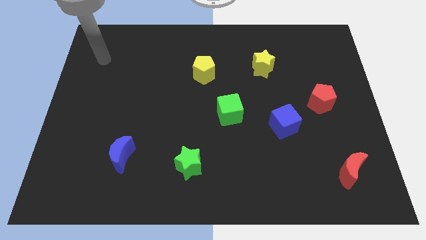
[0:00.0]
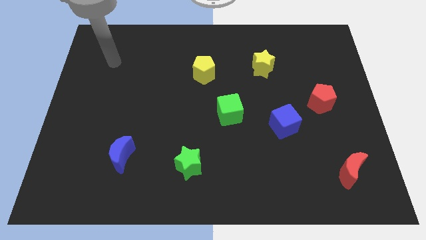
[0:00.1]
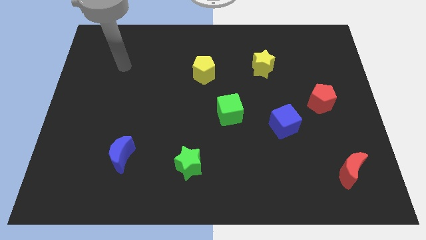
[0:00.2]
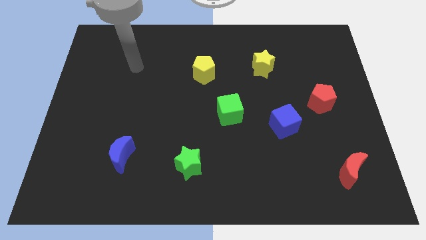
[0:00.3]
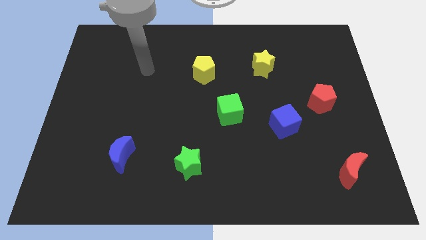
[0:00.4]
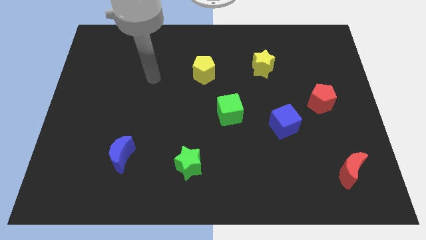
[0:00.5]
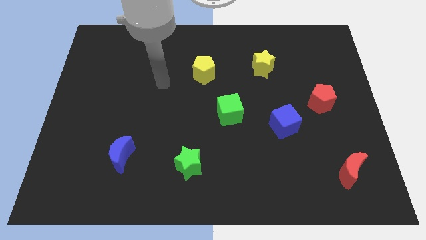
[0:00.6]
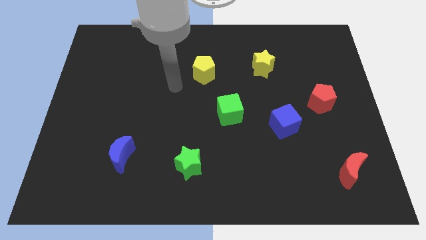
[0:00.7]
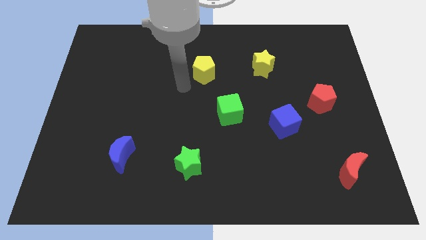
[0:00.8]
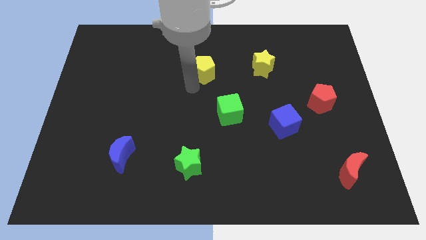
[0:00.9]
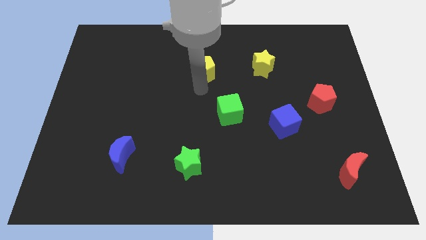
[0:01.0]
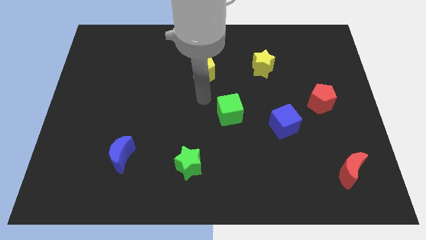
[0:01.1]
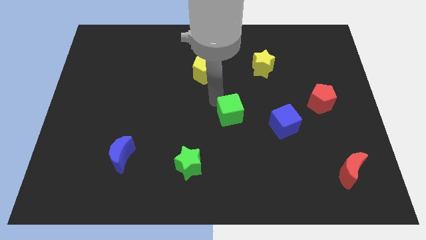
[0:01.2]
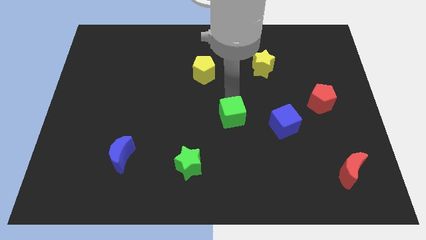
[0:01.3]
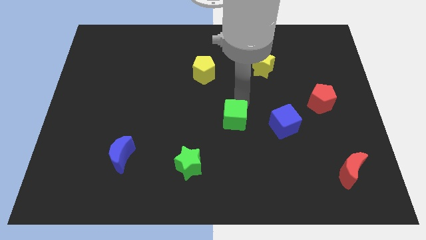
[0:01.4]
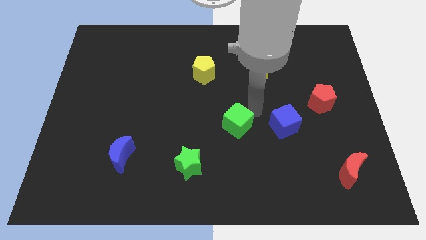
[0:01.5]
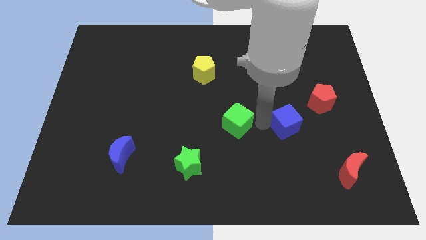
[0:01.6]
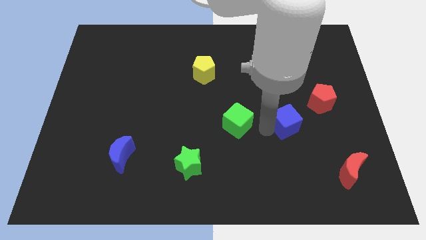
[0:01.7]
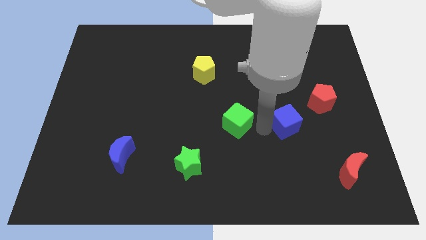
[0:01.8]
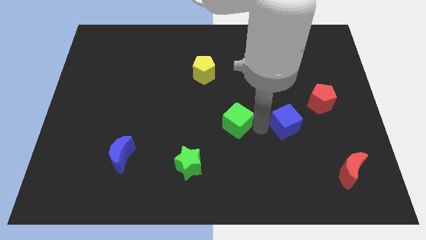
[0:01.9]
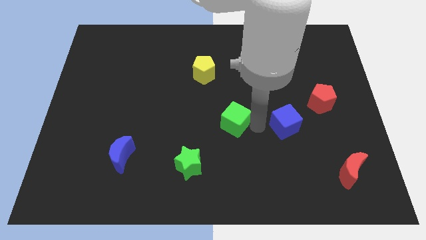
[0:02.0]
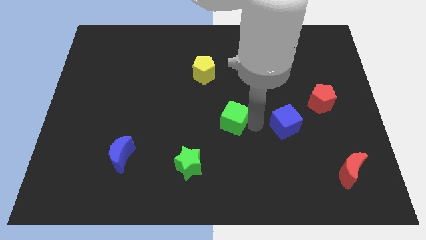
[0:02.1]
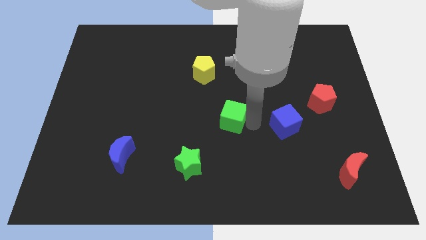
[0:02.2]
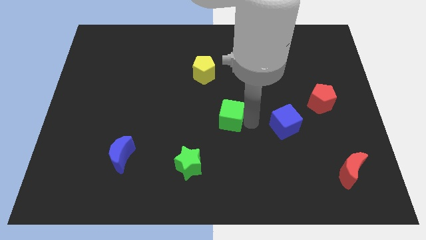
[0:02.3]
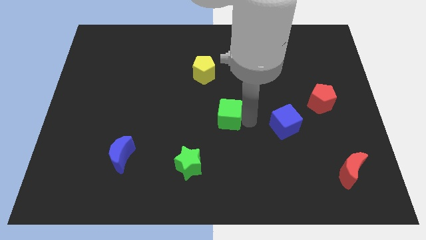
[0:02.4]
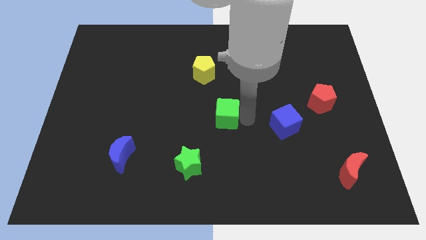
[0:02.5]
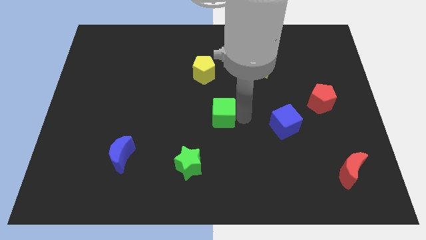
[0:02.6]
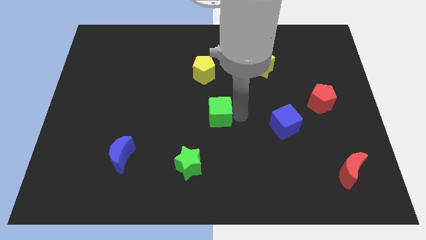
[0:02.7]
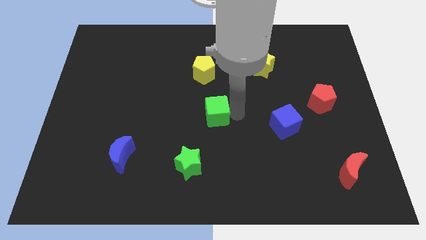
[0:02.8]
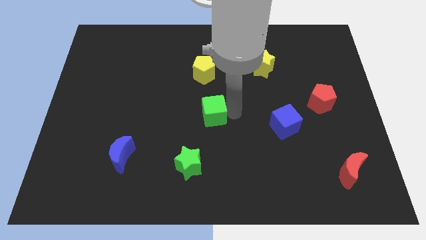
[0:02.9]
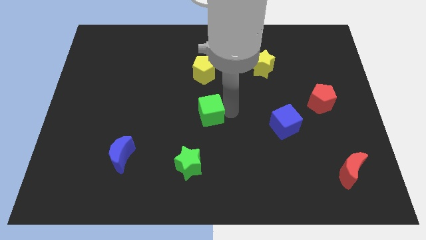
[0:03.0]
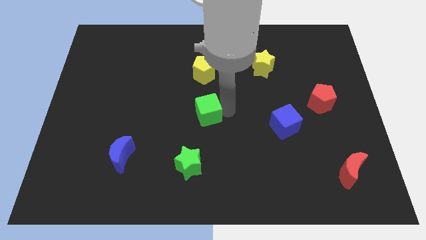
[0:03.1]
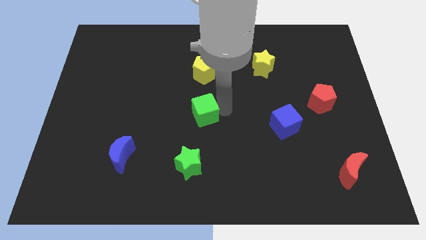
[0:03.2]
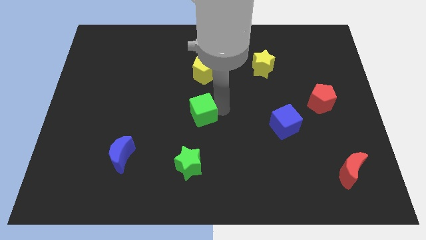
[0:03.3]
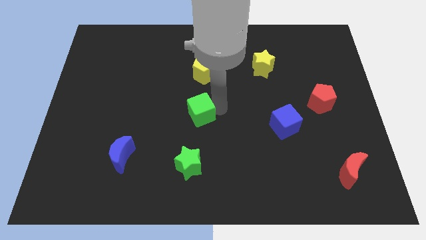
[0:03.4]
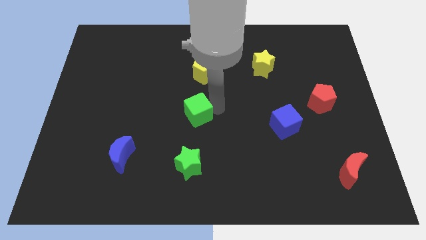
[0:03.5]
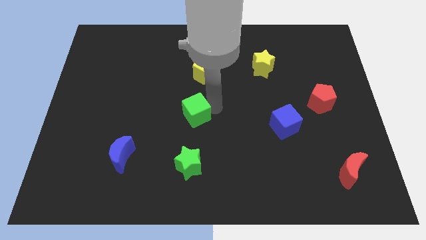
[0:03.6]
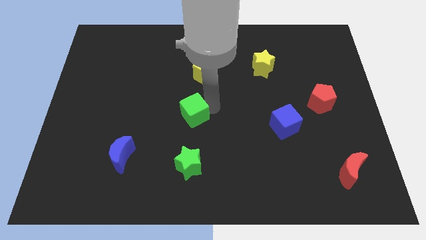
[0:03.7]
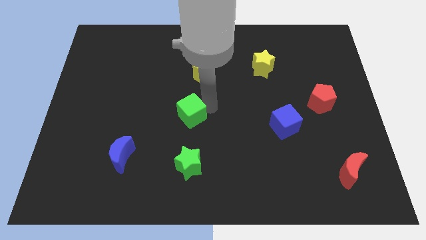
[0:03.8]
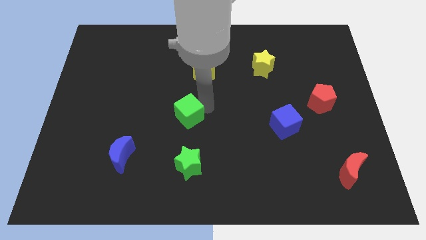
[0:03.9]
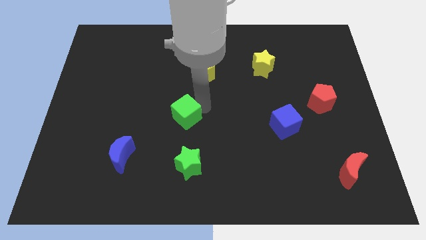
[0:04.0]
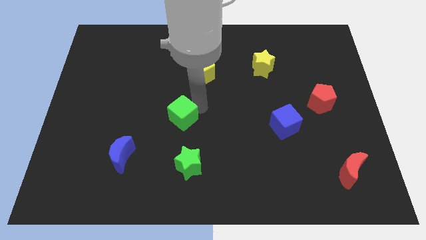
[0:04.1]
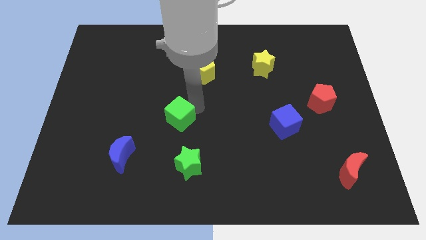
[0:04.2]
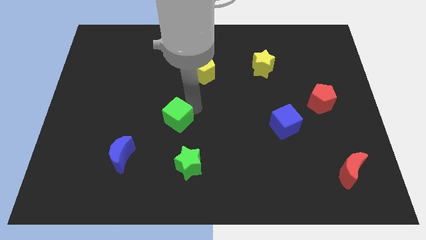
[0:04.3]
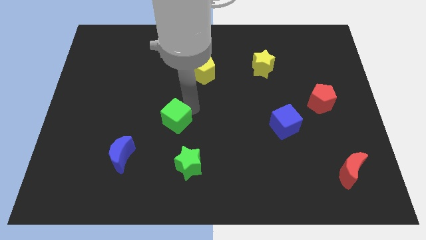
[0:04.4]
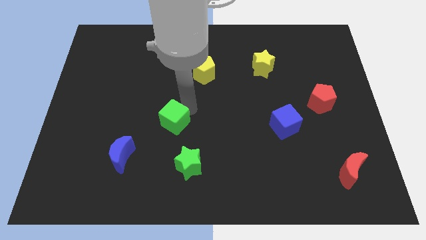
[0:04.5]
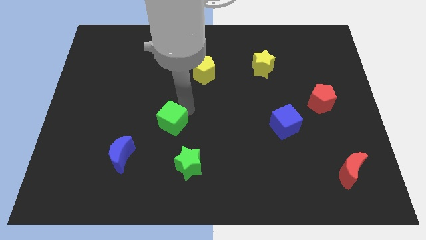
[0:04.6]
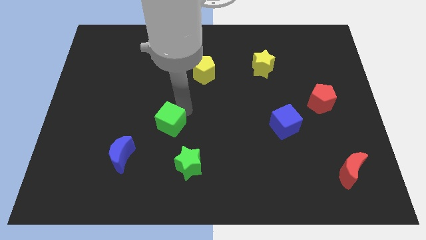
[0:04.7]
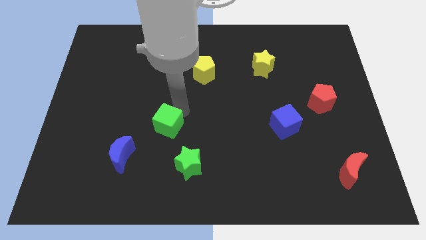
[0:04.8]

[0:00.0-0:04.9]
push the green cube to the top right side of the blue moon

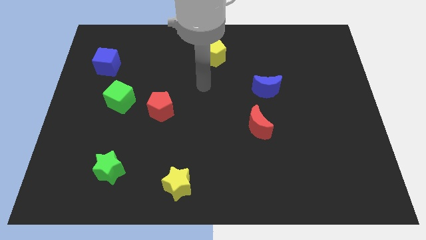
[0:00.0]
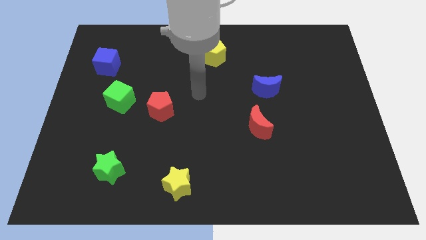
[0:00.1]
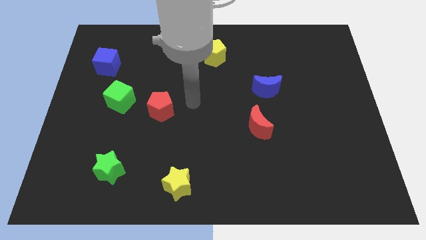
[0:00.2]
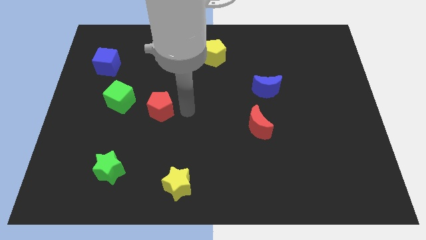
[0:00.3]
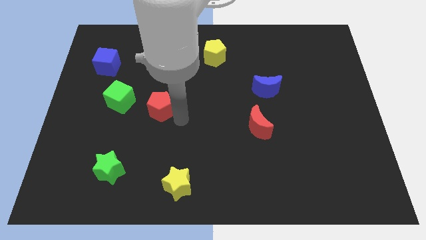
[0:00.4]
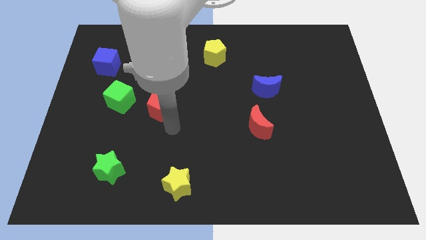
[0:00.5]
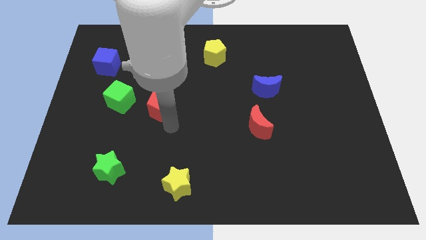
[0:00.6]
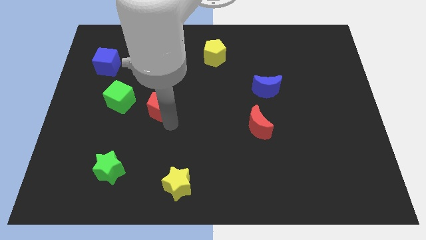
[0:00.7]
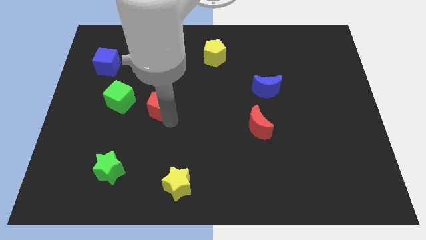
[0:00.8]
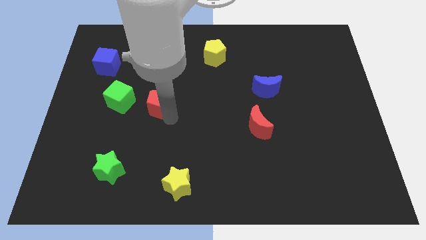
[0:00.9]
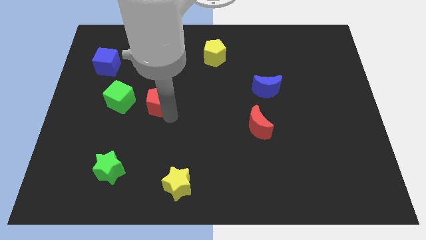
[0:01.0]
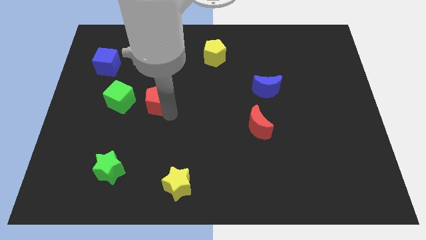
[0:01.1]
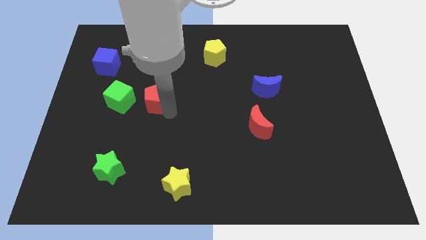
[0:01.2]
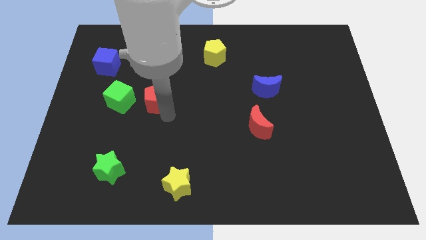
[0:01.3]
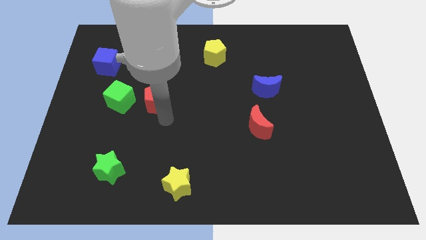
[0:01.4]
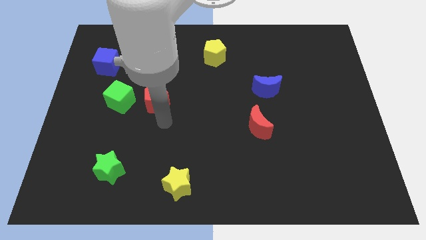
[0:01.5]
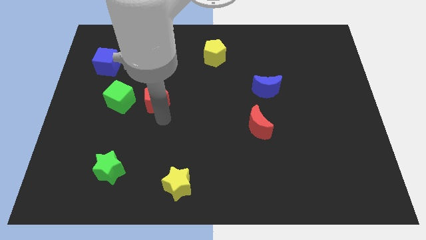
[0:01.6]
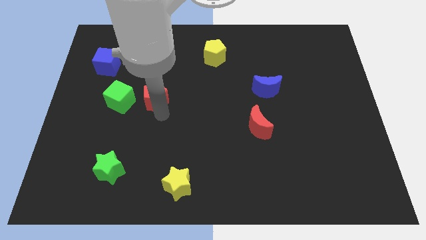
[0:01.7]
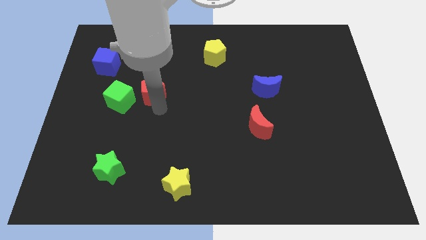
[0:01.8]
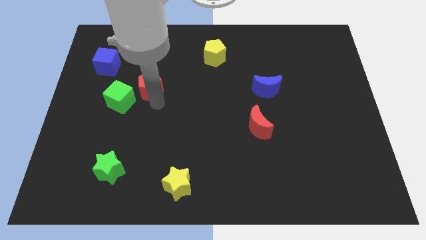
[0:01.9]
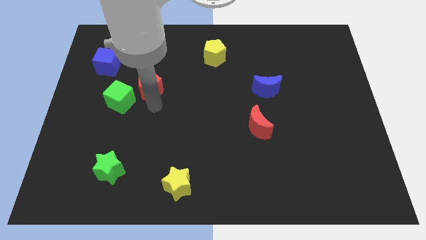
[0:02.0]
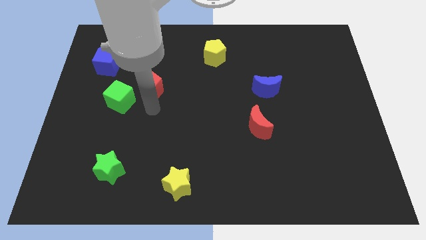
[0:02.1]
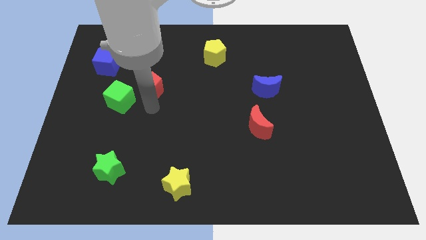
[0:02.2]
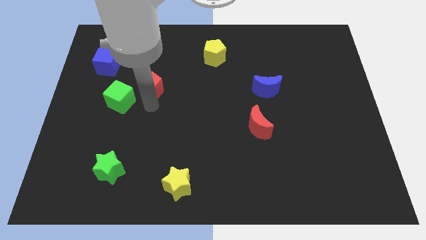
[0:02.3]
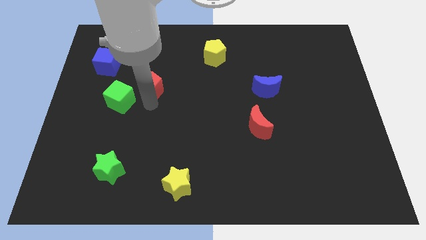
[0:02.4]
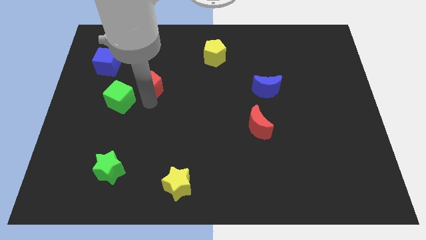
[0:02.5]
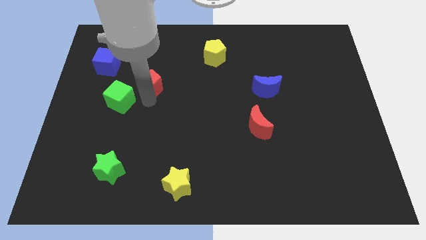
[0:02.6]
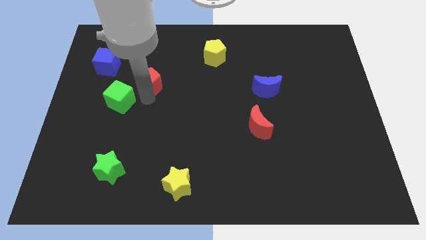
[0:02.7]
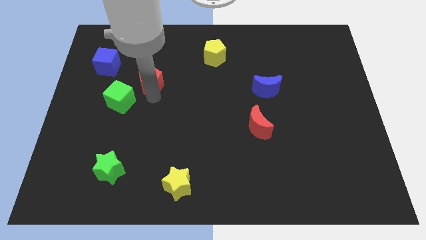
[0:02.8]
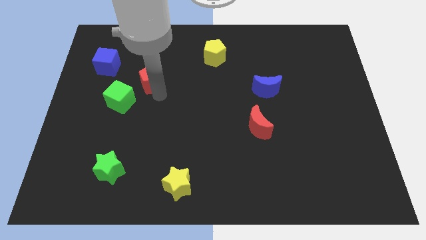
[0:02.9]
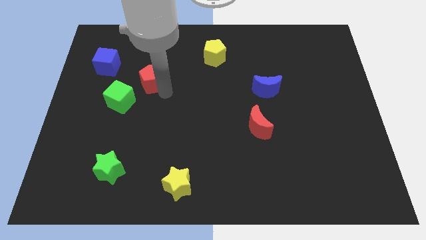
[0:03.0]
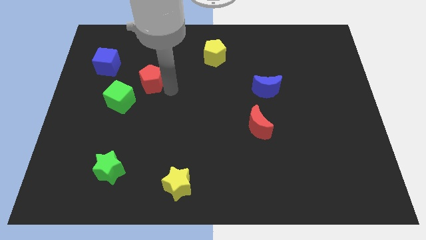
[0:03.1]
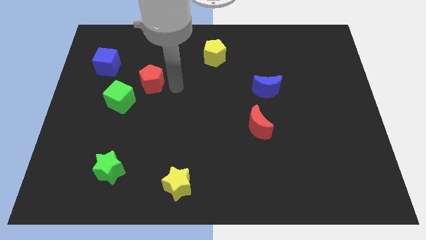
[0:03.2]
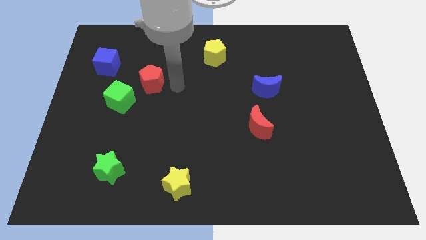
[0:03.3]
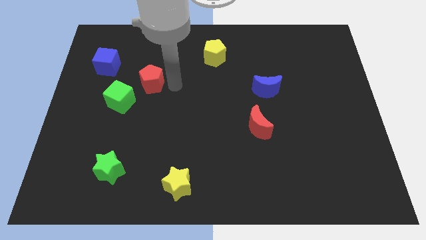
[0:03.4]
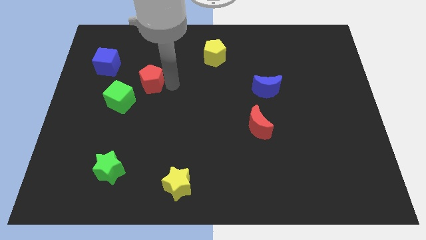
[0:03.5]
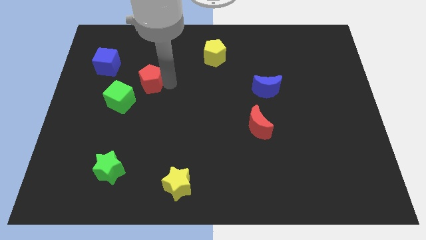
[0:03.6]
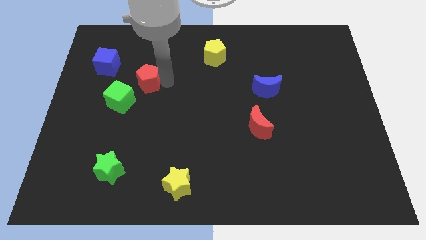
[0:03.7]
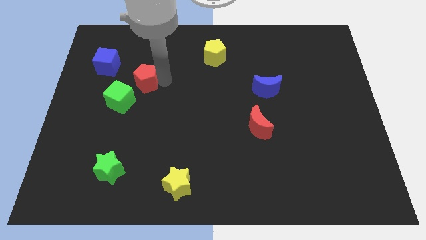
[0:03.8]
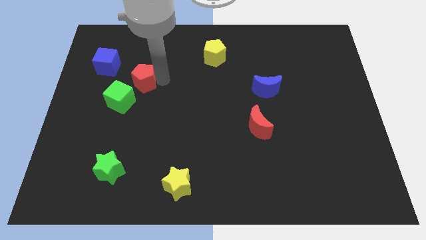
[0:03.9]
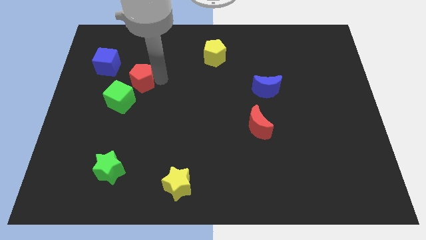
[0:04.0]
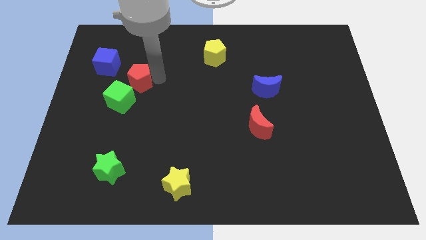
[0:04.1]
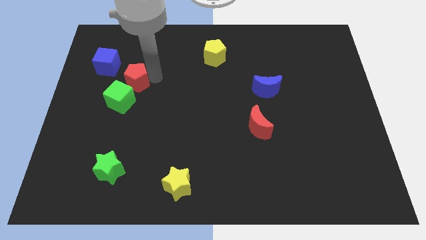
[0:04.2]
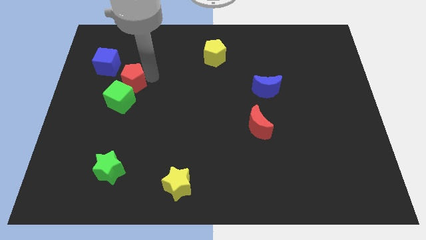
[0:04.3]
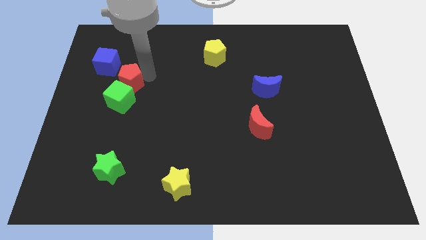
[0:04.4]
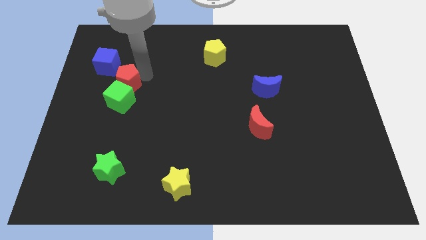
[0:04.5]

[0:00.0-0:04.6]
put the red pentagon to the top left side of the green cube
